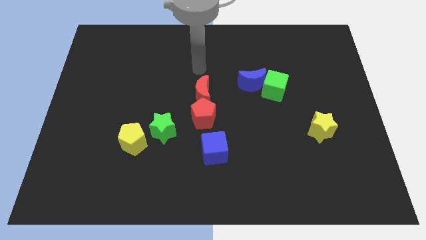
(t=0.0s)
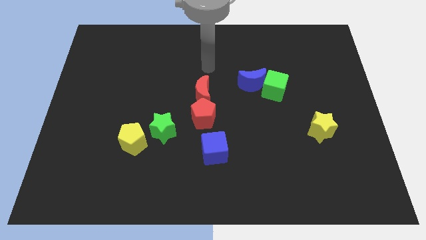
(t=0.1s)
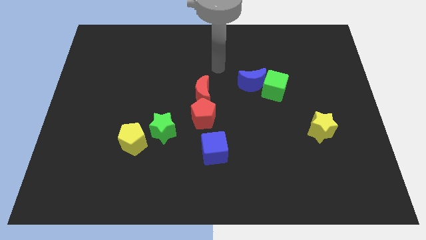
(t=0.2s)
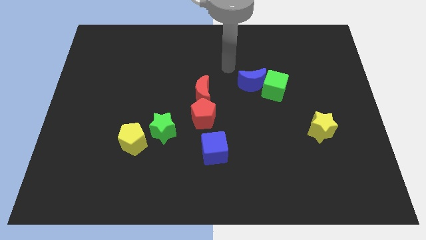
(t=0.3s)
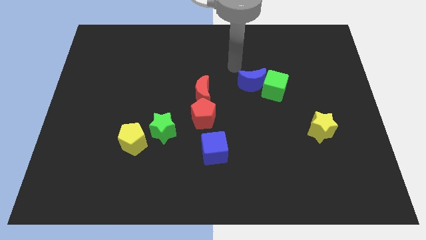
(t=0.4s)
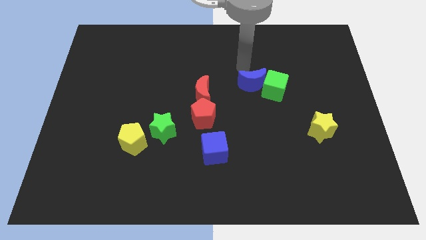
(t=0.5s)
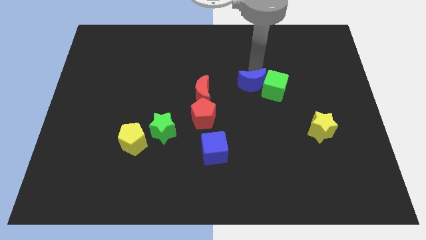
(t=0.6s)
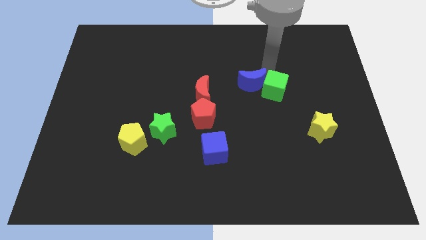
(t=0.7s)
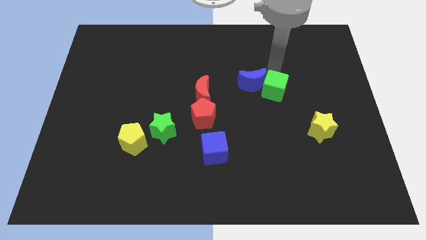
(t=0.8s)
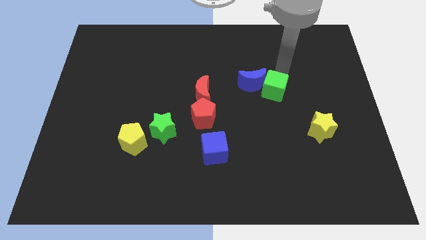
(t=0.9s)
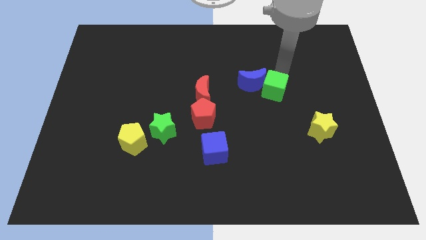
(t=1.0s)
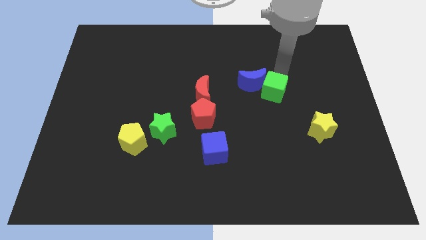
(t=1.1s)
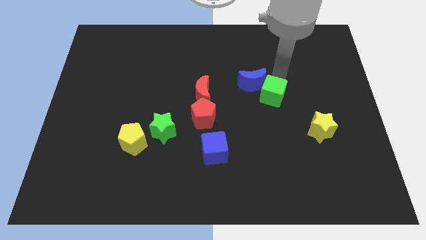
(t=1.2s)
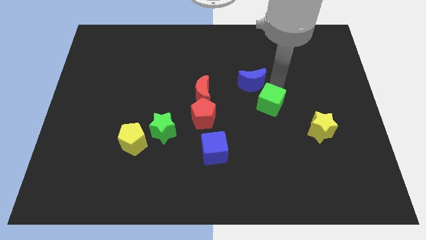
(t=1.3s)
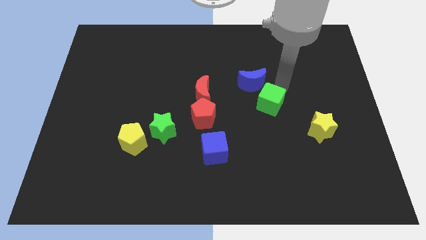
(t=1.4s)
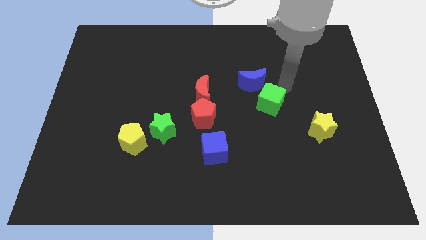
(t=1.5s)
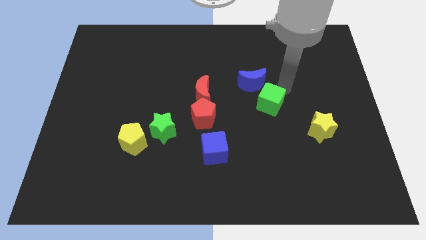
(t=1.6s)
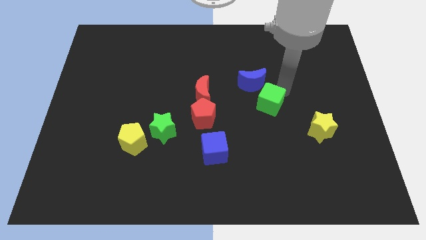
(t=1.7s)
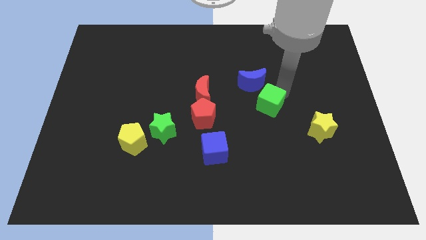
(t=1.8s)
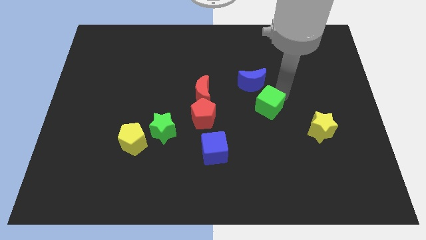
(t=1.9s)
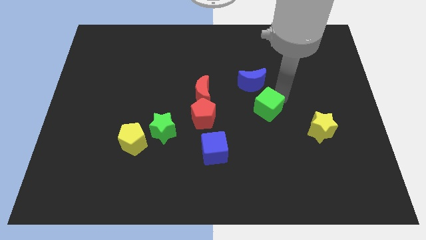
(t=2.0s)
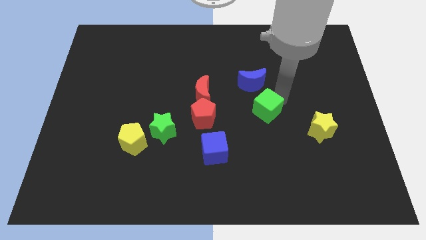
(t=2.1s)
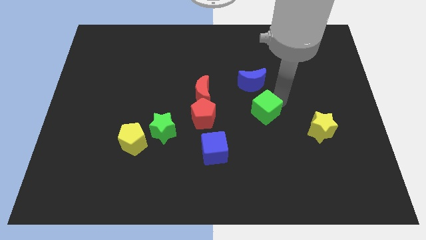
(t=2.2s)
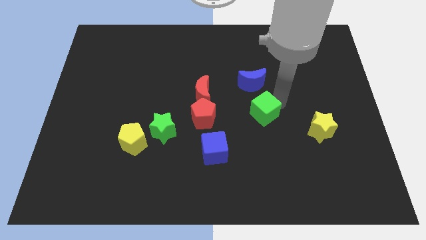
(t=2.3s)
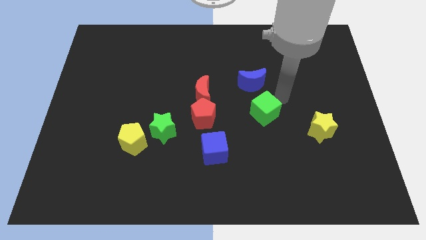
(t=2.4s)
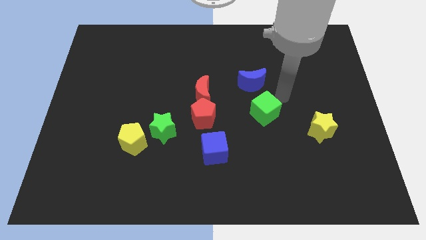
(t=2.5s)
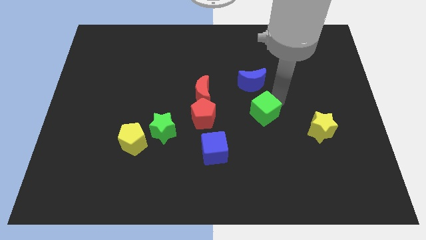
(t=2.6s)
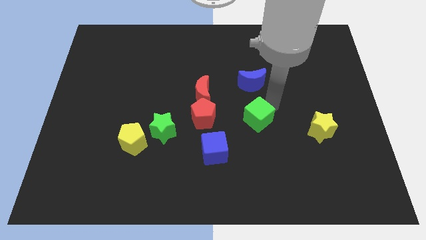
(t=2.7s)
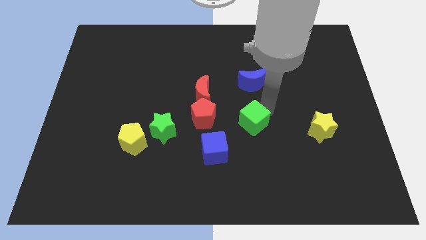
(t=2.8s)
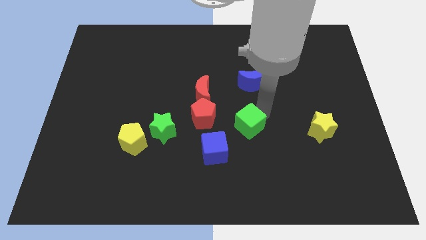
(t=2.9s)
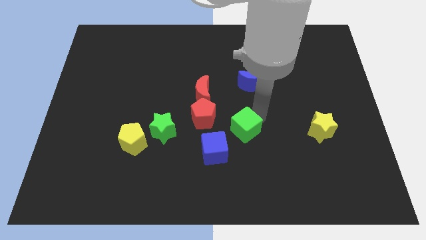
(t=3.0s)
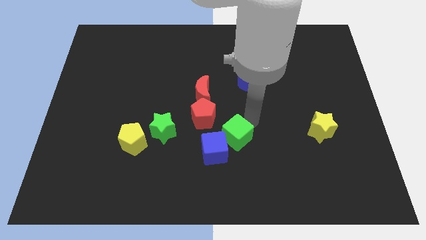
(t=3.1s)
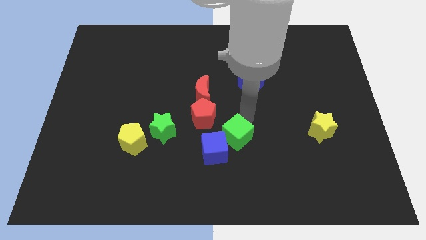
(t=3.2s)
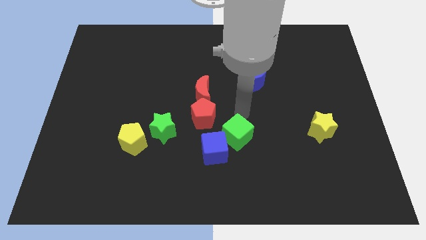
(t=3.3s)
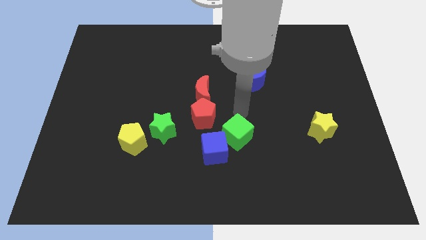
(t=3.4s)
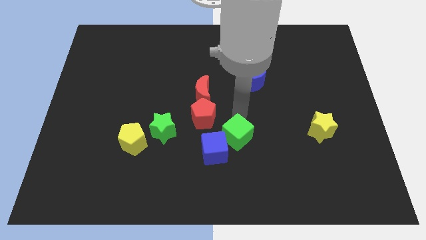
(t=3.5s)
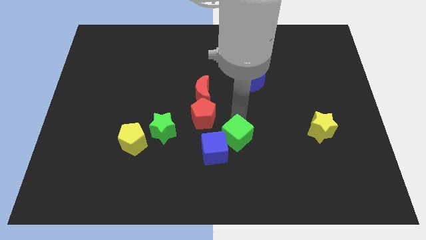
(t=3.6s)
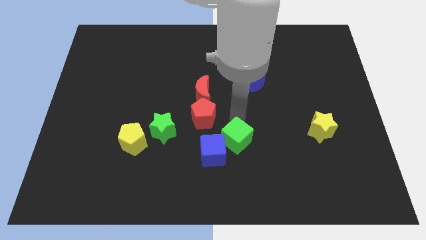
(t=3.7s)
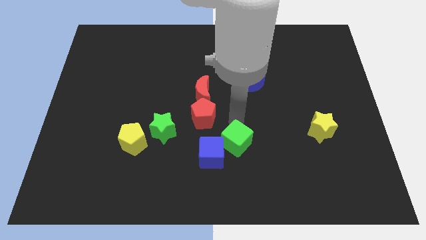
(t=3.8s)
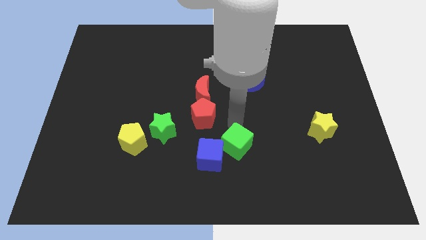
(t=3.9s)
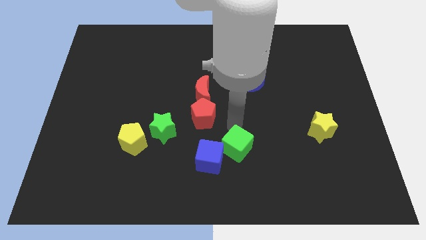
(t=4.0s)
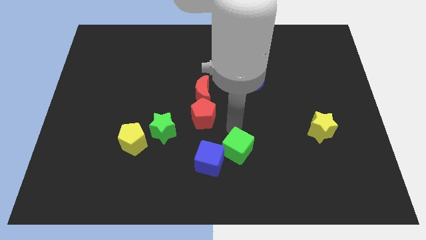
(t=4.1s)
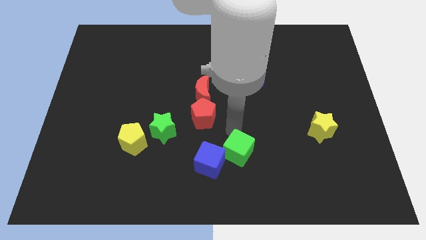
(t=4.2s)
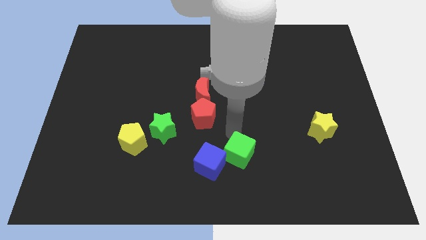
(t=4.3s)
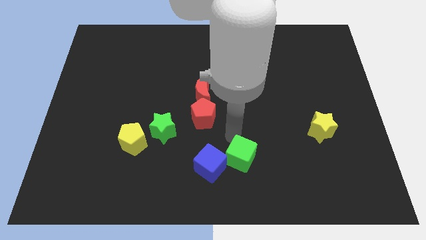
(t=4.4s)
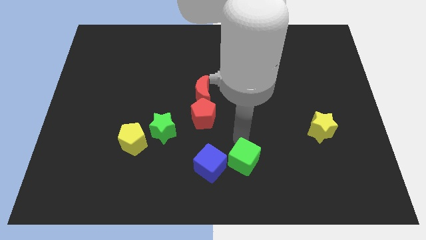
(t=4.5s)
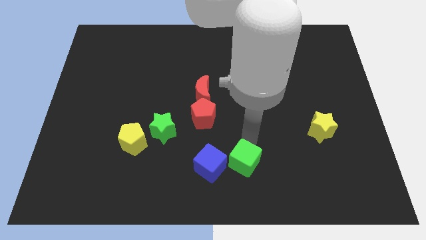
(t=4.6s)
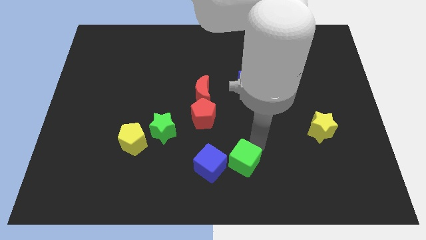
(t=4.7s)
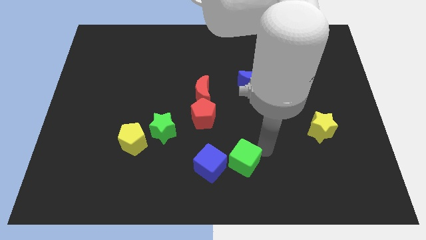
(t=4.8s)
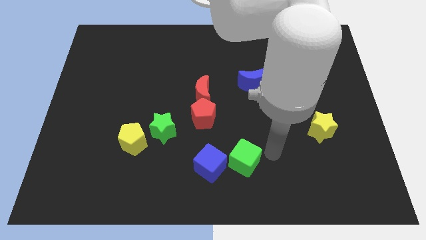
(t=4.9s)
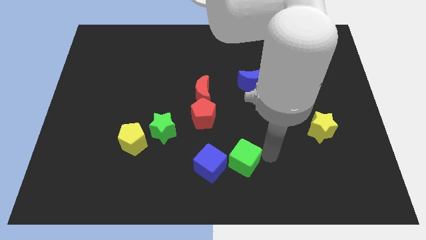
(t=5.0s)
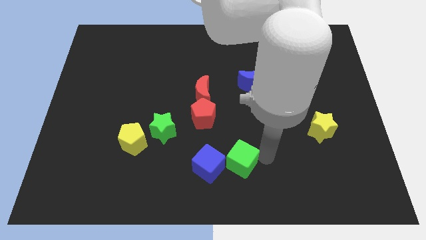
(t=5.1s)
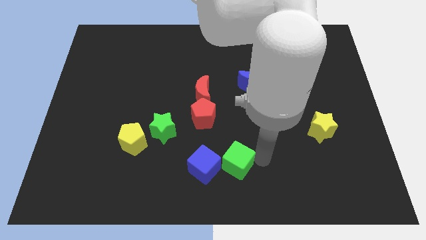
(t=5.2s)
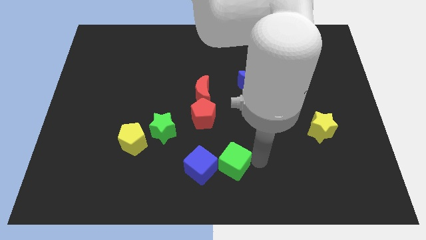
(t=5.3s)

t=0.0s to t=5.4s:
slide the green cube down and then to the left

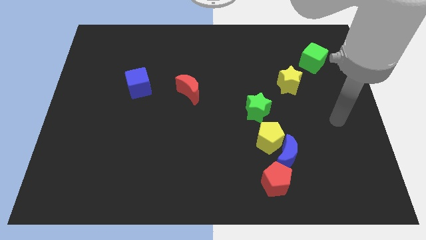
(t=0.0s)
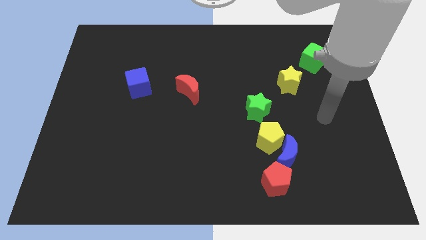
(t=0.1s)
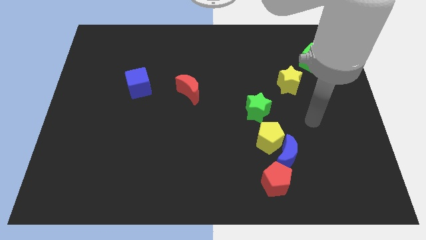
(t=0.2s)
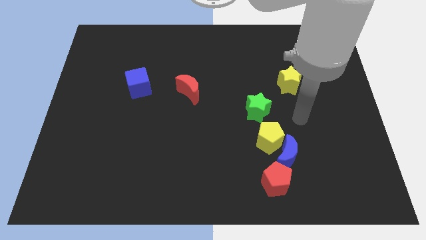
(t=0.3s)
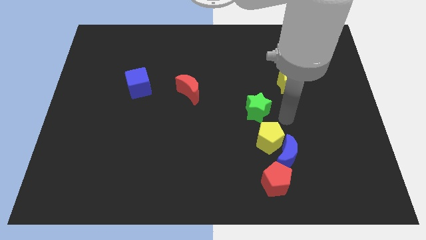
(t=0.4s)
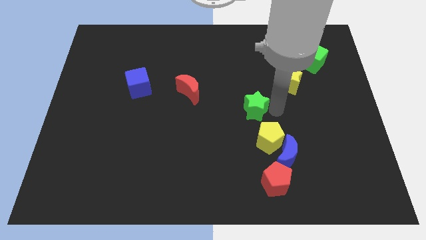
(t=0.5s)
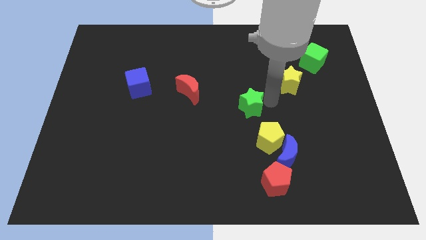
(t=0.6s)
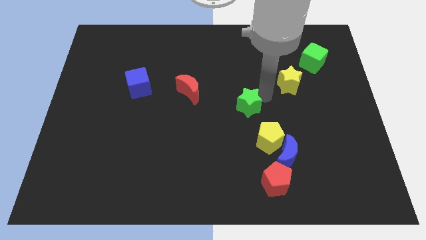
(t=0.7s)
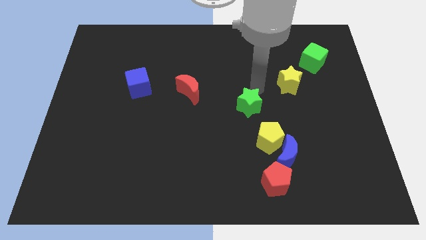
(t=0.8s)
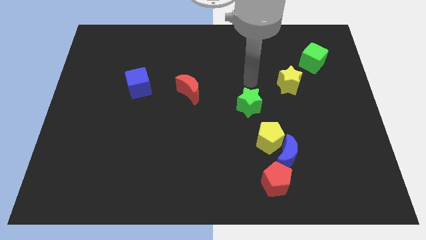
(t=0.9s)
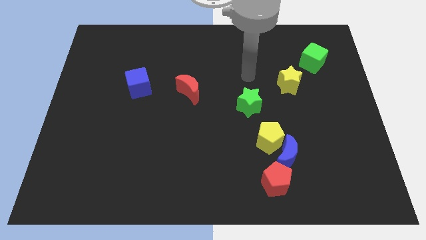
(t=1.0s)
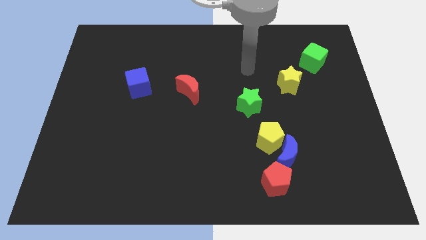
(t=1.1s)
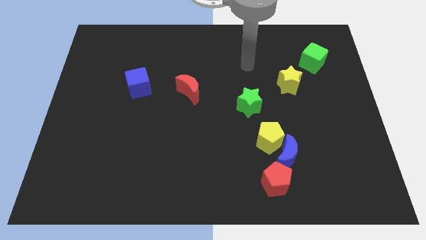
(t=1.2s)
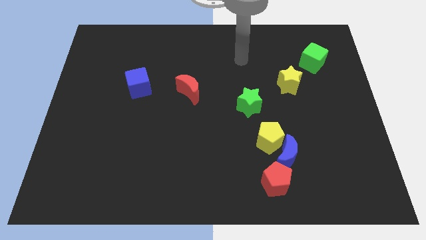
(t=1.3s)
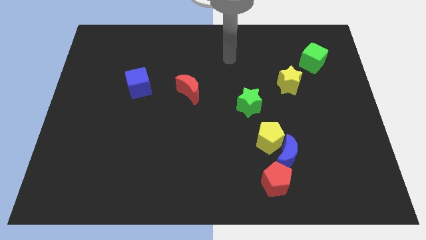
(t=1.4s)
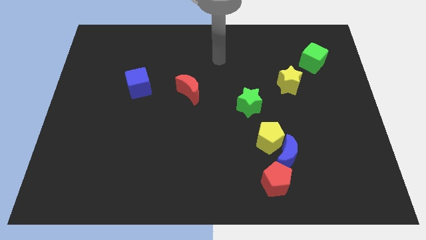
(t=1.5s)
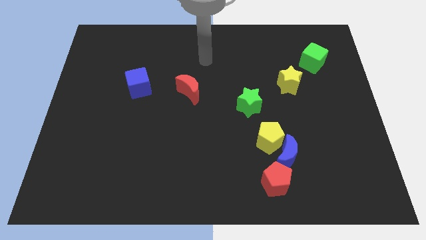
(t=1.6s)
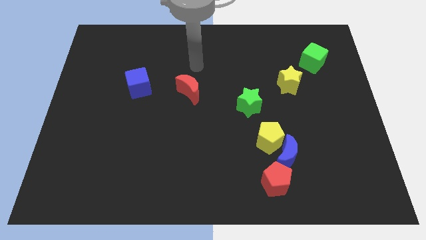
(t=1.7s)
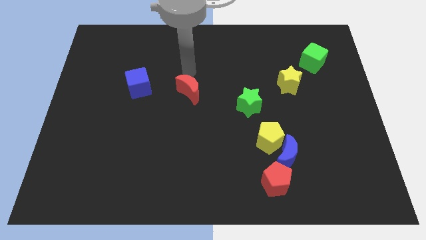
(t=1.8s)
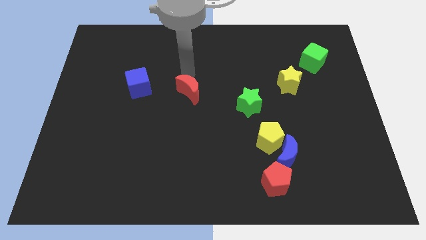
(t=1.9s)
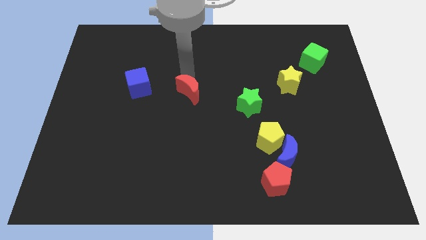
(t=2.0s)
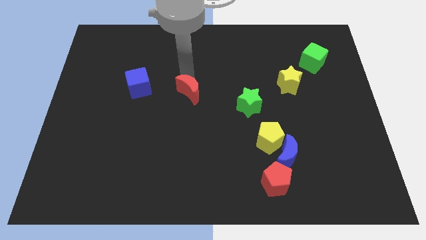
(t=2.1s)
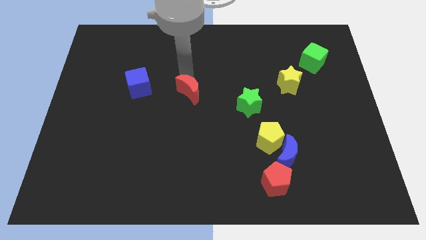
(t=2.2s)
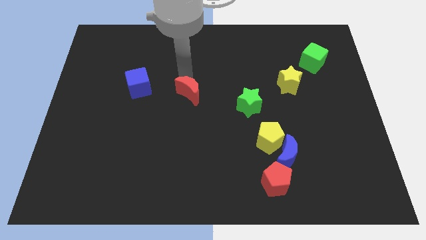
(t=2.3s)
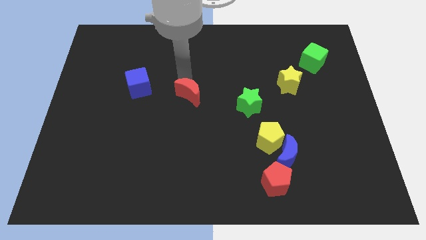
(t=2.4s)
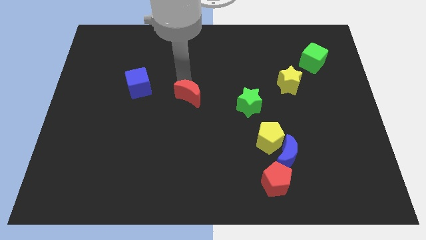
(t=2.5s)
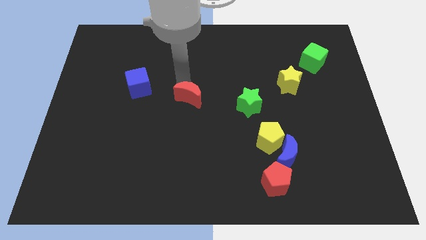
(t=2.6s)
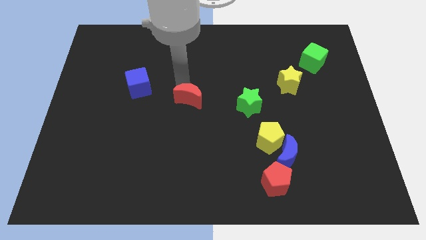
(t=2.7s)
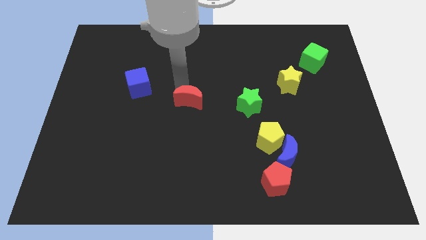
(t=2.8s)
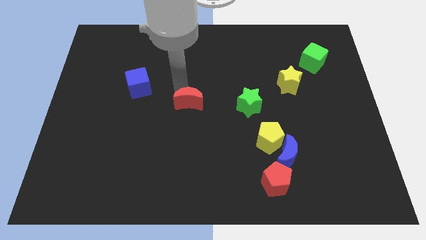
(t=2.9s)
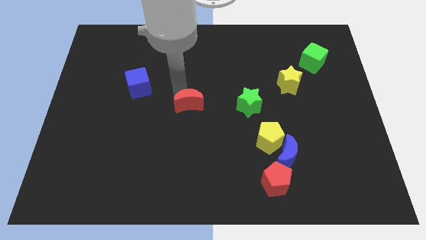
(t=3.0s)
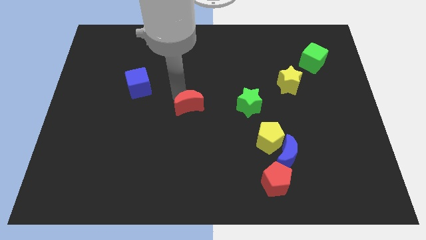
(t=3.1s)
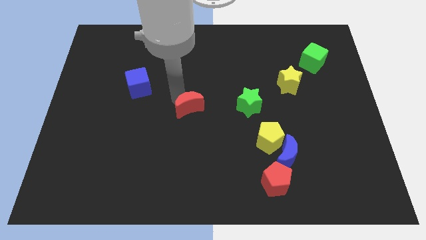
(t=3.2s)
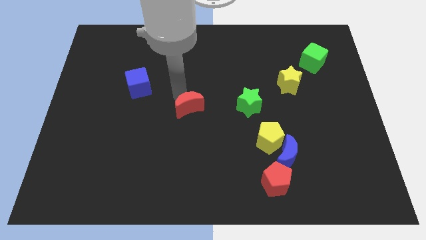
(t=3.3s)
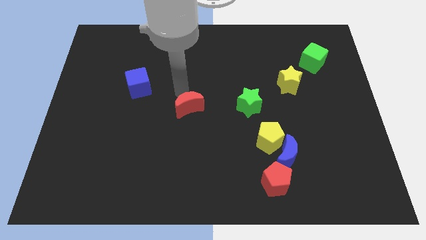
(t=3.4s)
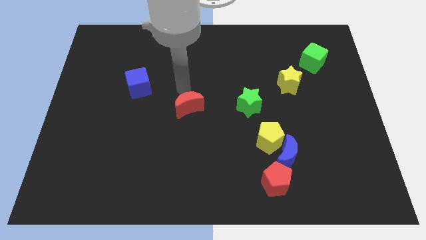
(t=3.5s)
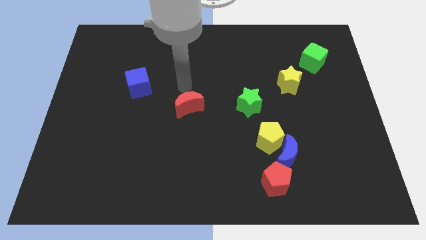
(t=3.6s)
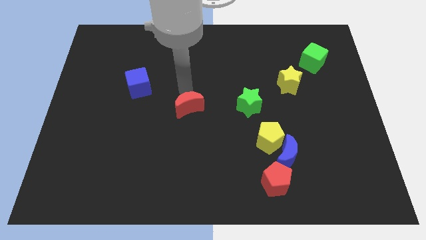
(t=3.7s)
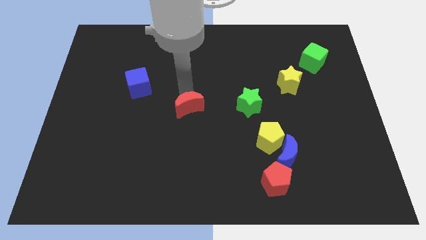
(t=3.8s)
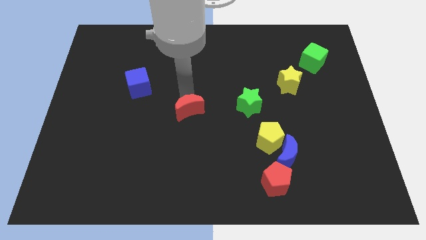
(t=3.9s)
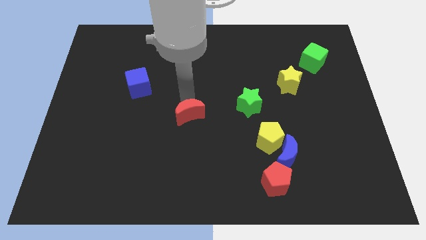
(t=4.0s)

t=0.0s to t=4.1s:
push the red moon somewhat down
